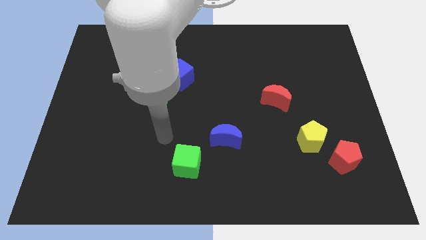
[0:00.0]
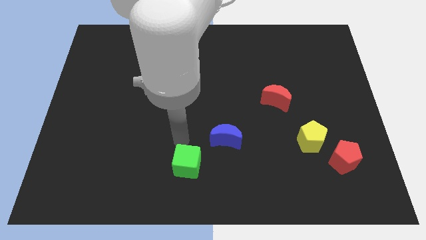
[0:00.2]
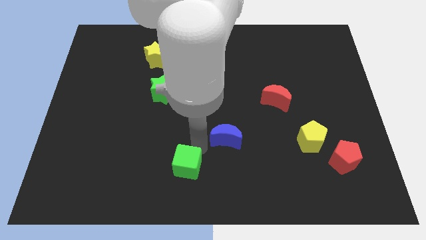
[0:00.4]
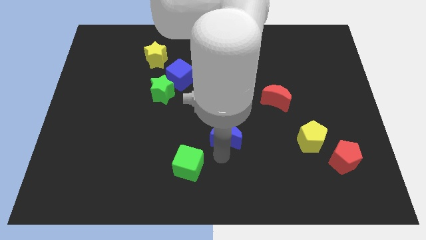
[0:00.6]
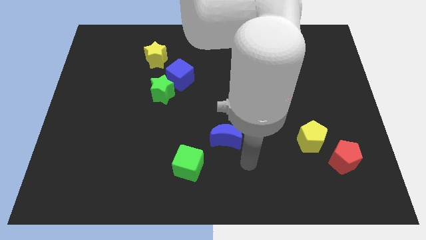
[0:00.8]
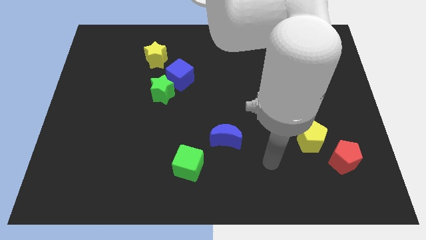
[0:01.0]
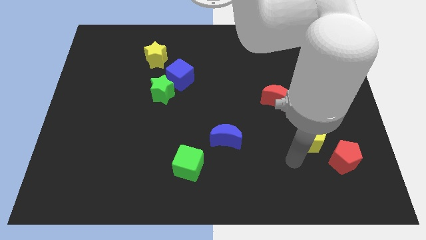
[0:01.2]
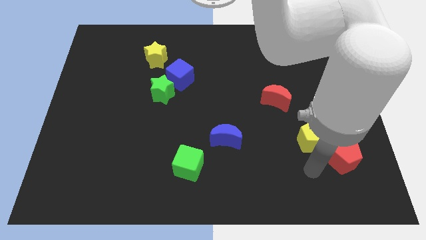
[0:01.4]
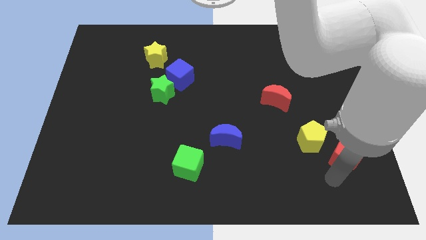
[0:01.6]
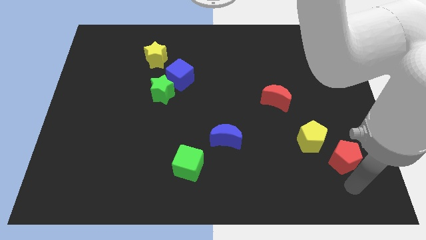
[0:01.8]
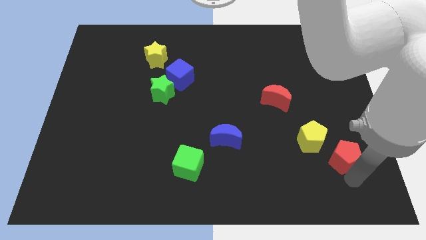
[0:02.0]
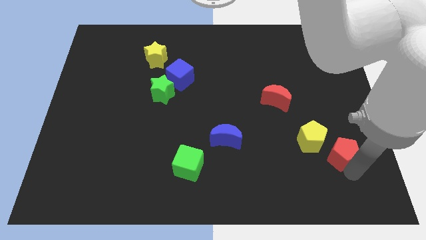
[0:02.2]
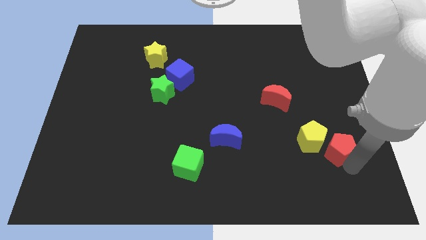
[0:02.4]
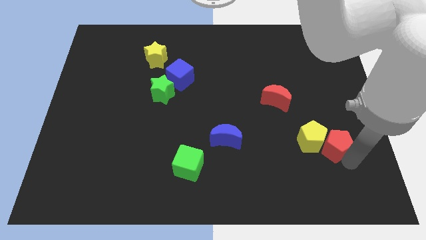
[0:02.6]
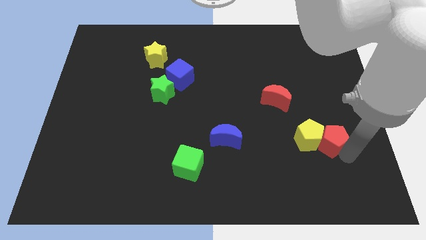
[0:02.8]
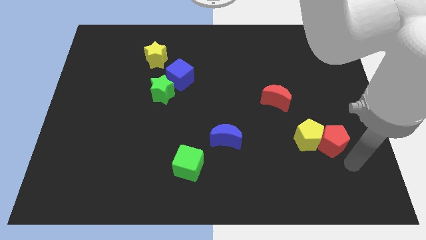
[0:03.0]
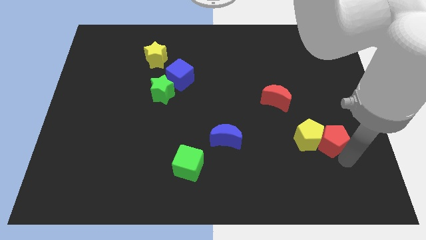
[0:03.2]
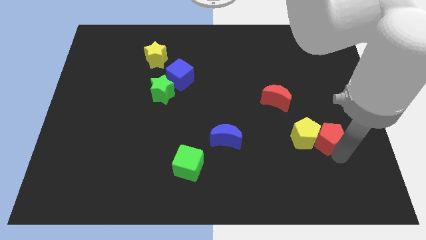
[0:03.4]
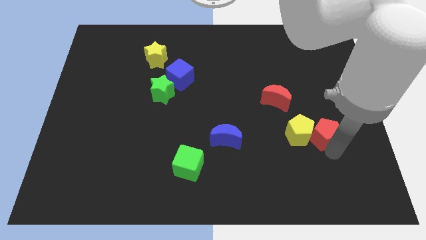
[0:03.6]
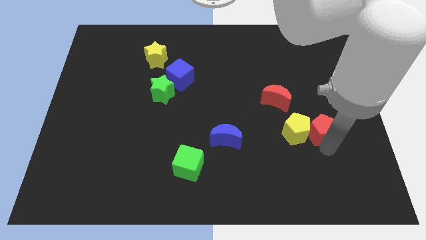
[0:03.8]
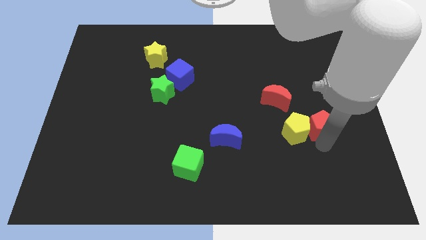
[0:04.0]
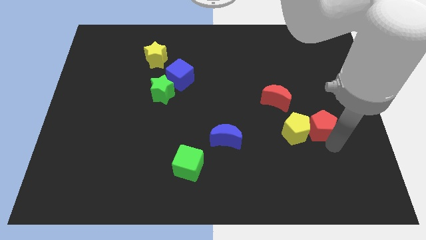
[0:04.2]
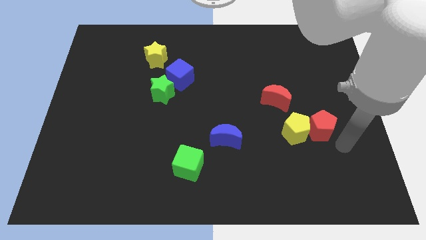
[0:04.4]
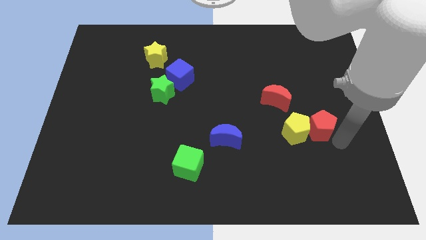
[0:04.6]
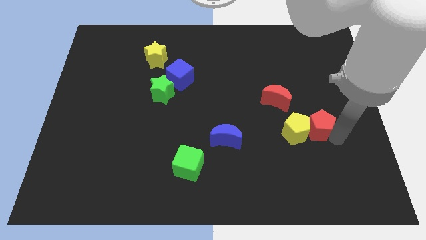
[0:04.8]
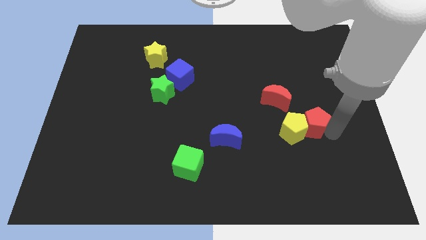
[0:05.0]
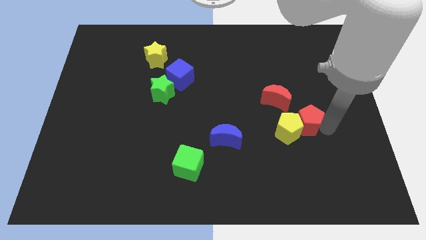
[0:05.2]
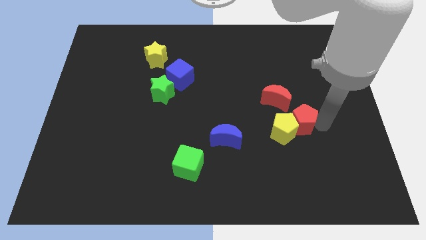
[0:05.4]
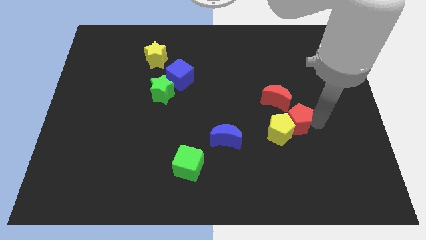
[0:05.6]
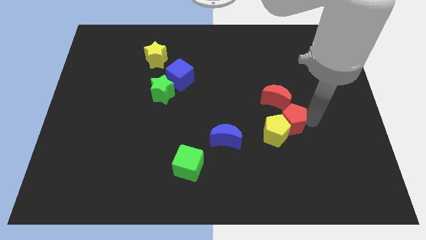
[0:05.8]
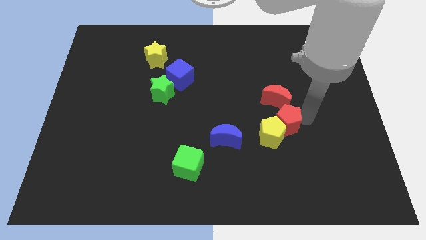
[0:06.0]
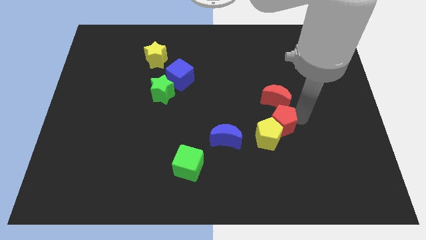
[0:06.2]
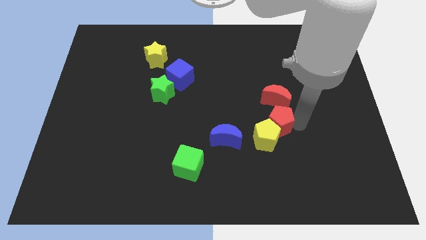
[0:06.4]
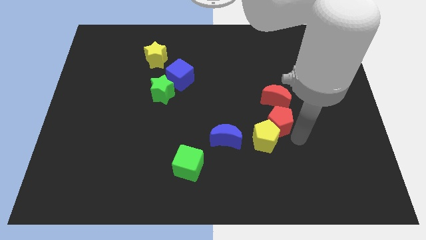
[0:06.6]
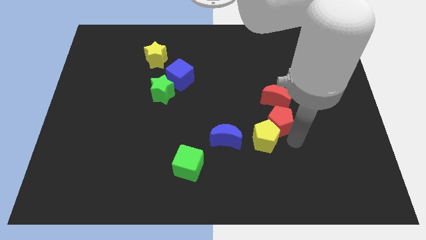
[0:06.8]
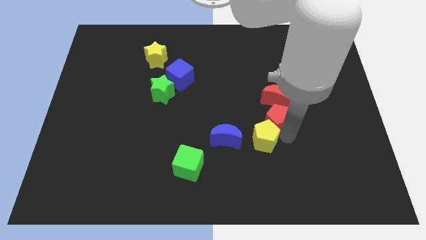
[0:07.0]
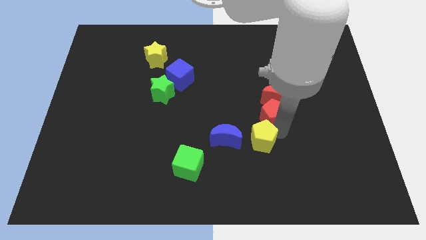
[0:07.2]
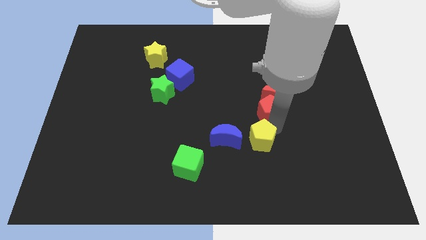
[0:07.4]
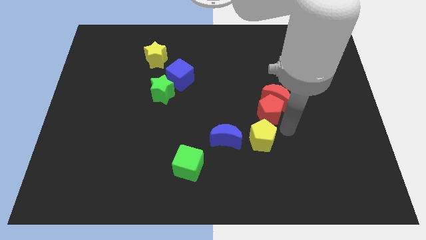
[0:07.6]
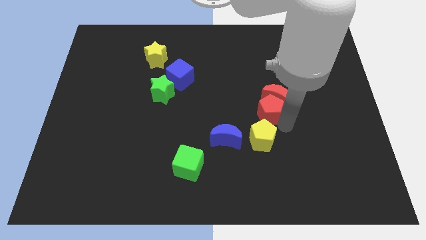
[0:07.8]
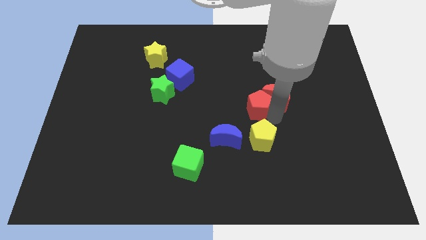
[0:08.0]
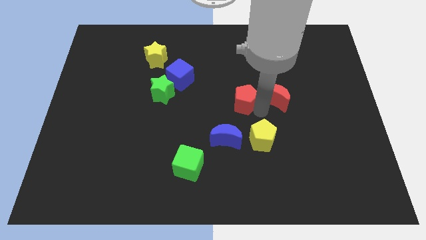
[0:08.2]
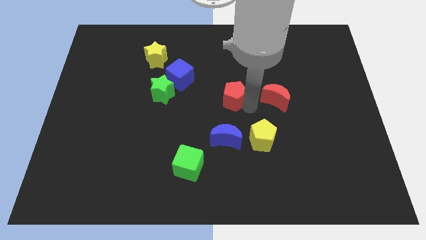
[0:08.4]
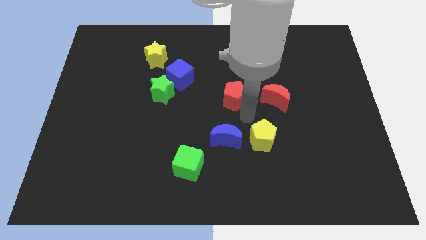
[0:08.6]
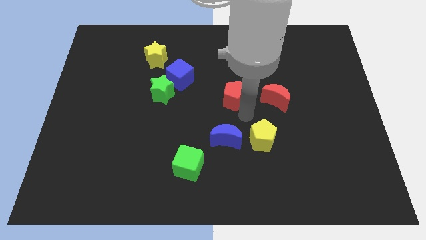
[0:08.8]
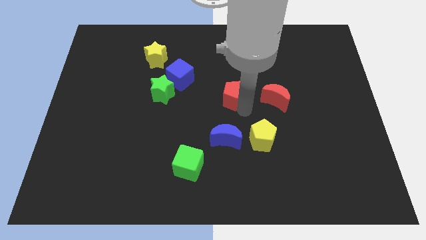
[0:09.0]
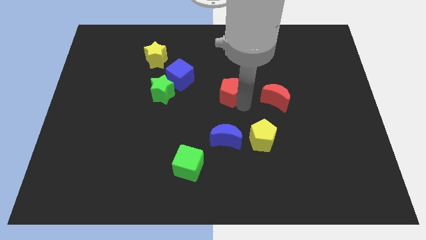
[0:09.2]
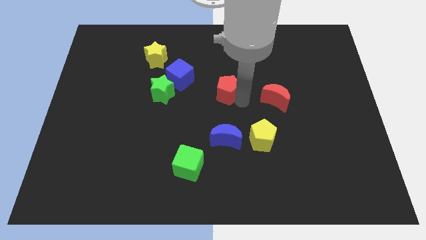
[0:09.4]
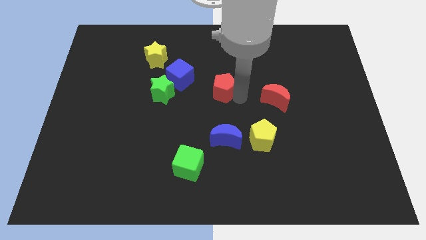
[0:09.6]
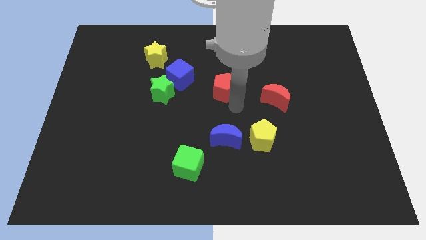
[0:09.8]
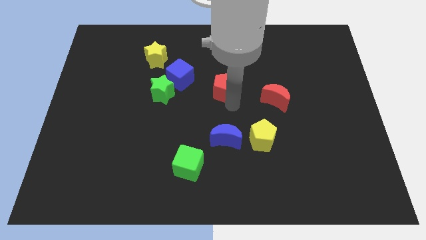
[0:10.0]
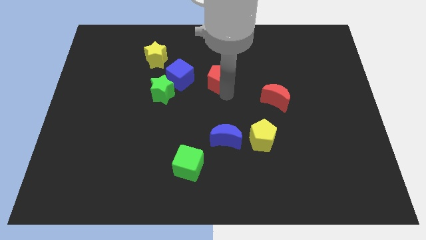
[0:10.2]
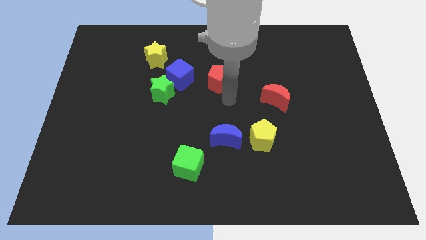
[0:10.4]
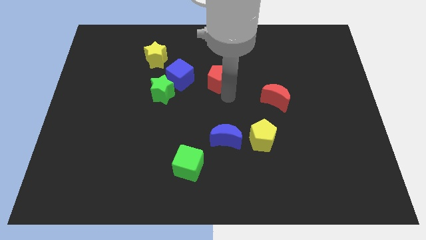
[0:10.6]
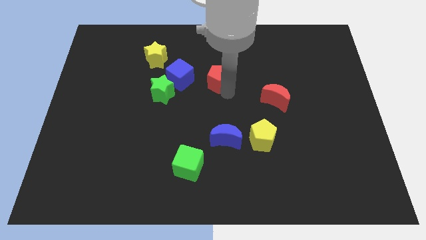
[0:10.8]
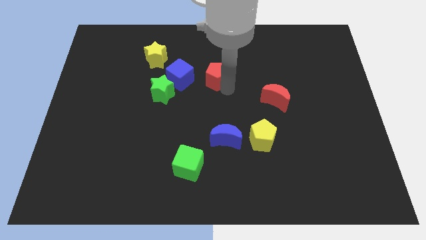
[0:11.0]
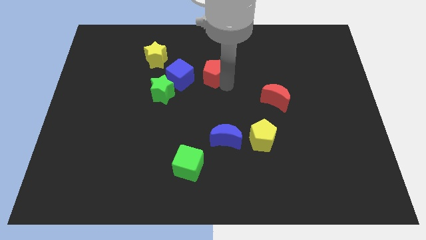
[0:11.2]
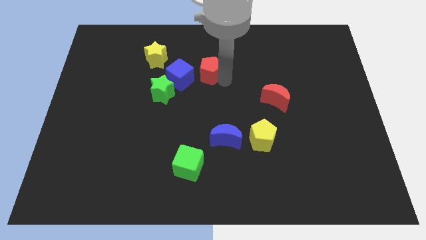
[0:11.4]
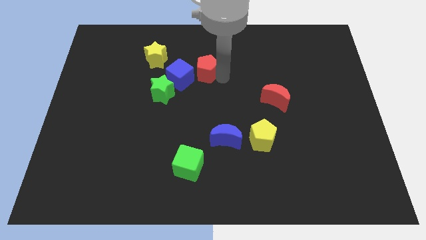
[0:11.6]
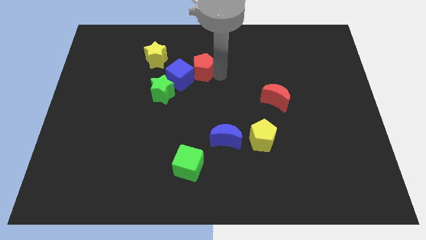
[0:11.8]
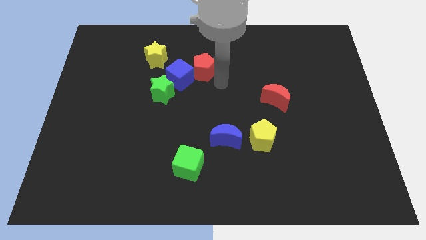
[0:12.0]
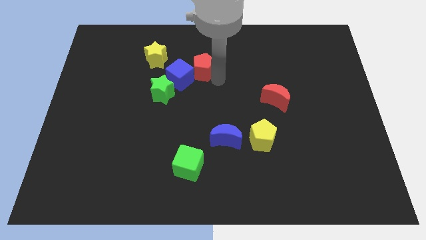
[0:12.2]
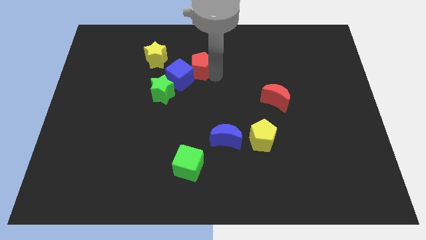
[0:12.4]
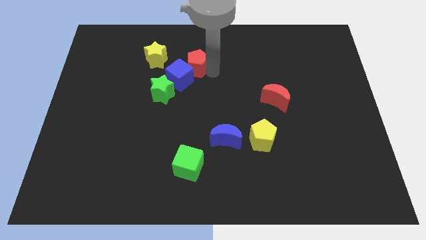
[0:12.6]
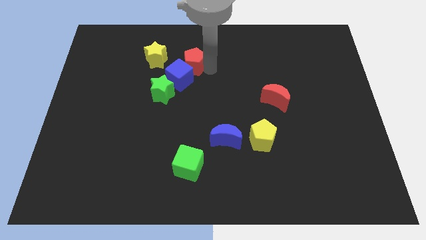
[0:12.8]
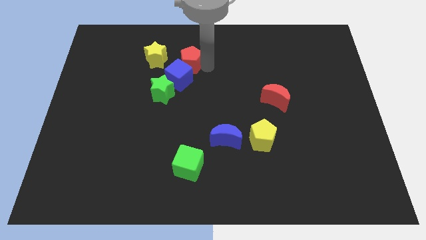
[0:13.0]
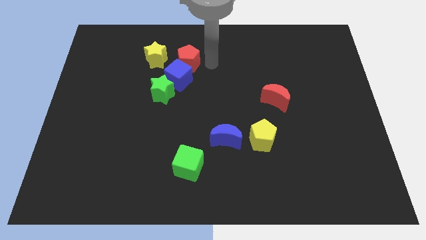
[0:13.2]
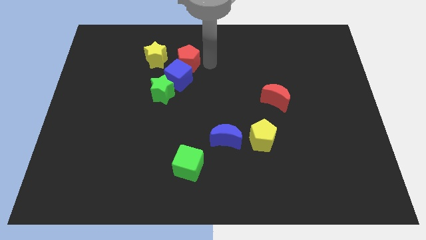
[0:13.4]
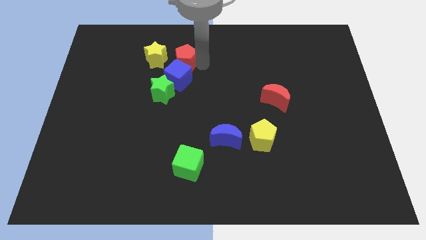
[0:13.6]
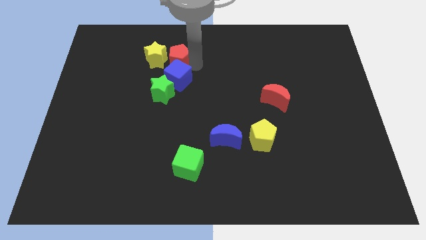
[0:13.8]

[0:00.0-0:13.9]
move the red pentagon close to the yellow star
